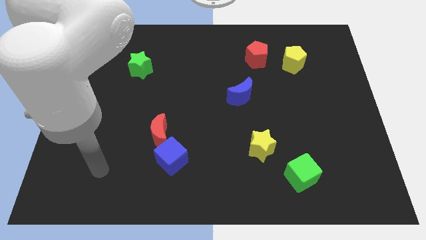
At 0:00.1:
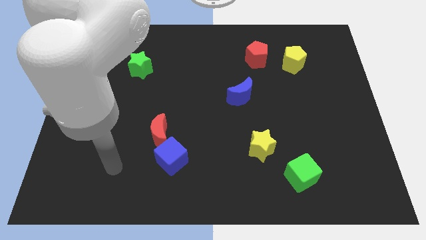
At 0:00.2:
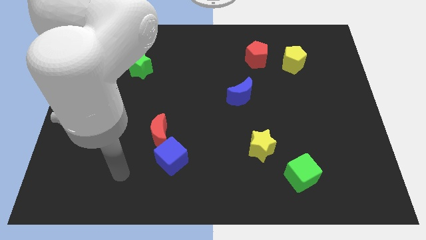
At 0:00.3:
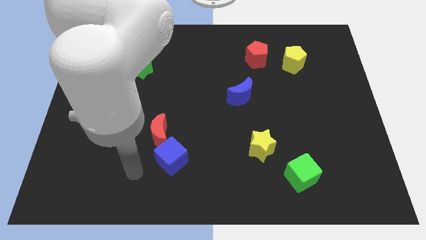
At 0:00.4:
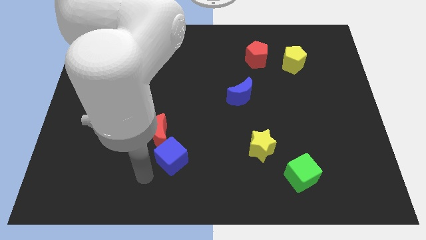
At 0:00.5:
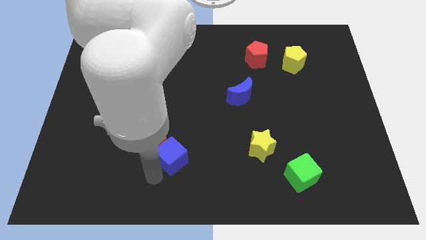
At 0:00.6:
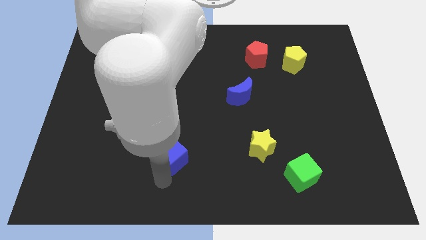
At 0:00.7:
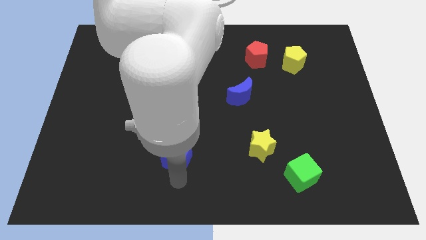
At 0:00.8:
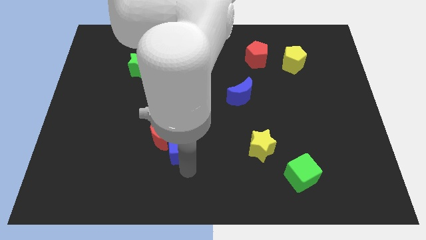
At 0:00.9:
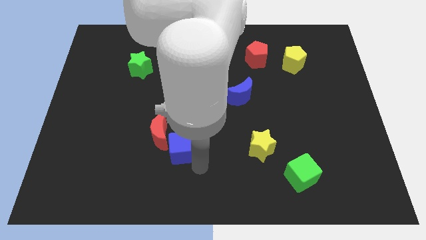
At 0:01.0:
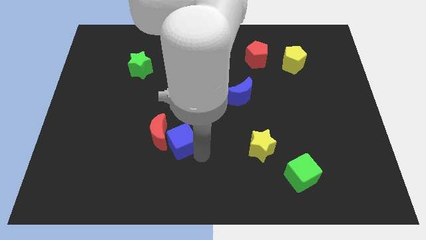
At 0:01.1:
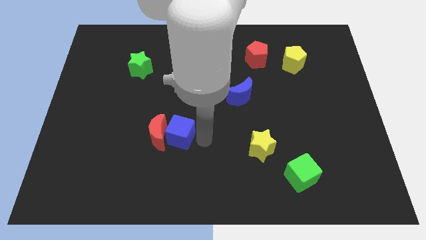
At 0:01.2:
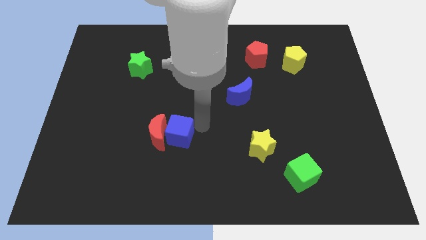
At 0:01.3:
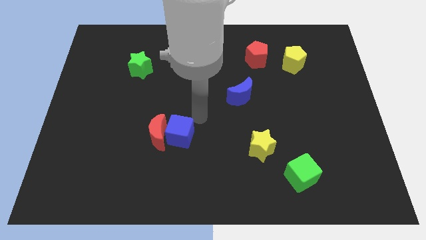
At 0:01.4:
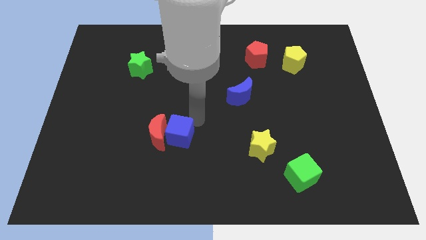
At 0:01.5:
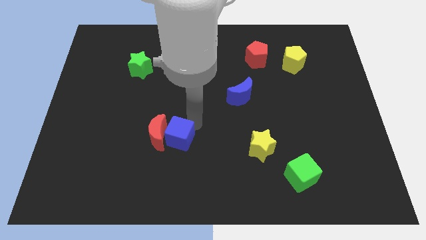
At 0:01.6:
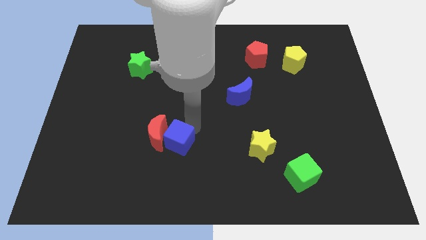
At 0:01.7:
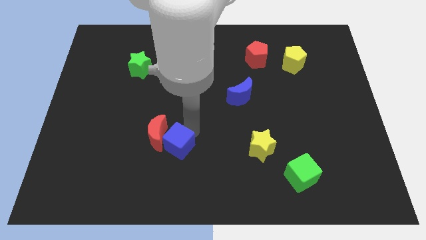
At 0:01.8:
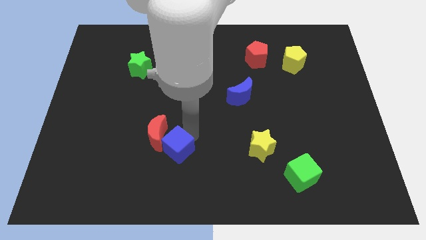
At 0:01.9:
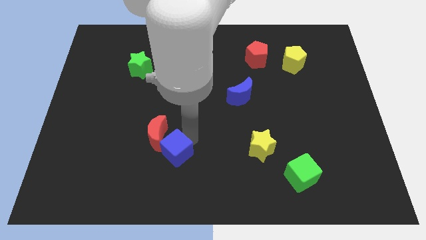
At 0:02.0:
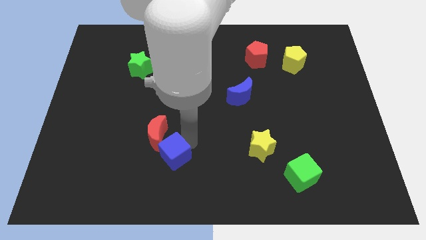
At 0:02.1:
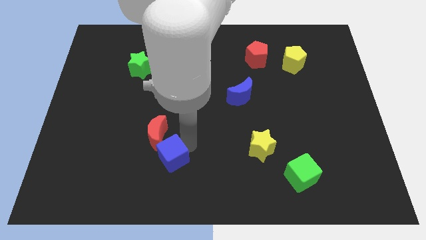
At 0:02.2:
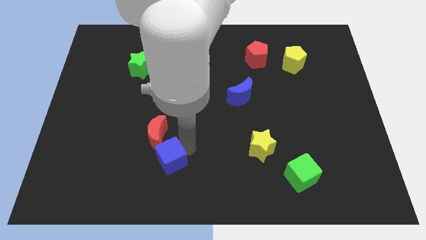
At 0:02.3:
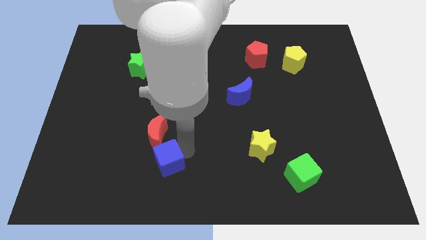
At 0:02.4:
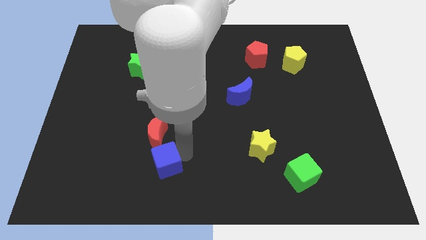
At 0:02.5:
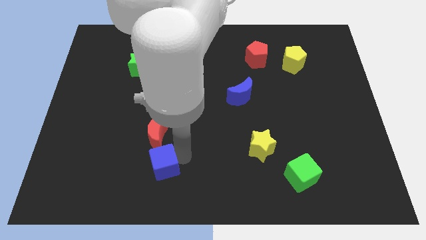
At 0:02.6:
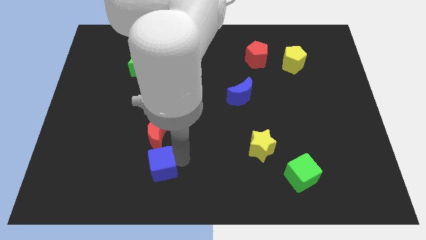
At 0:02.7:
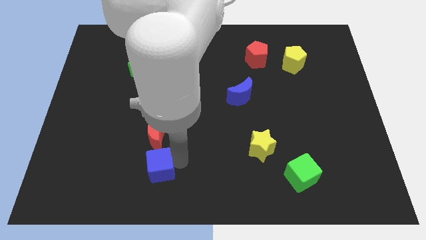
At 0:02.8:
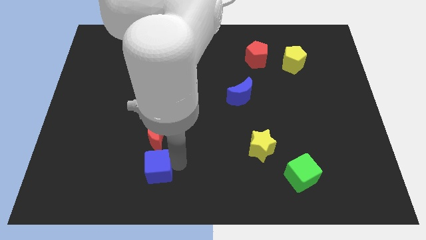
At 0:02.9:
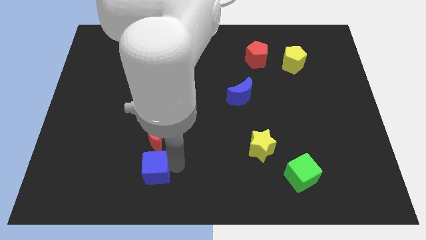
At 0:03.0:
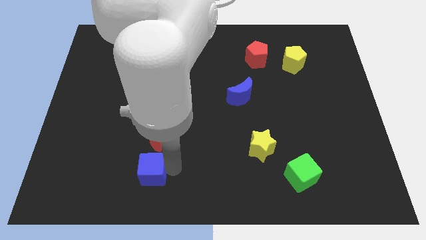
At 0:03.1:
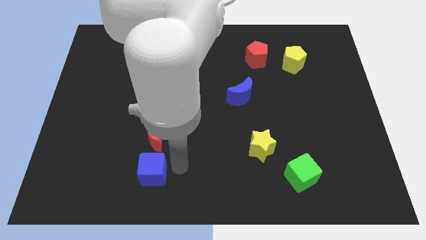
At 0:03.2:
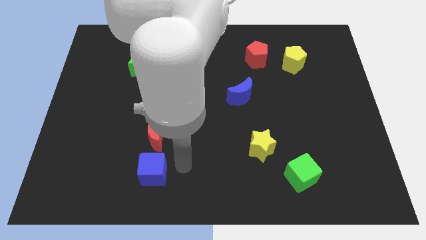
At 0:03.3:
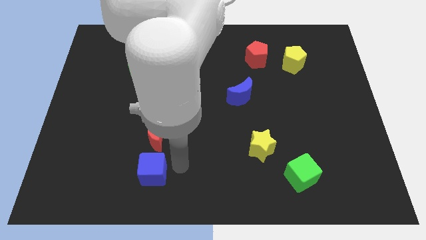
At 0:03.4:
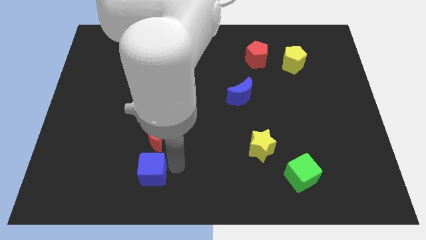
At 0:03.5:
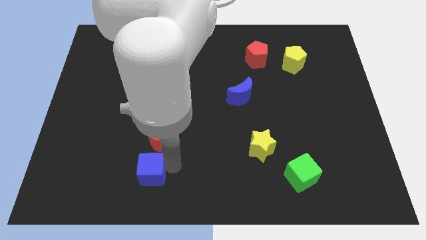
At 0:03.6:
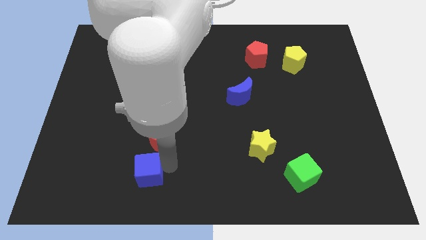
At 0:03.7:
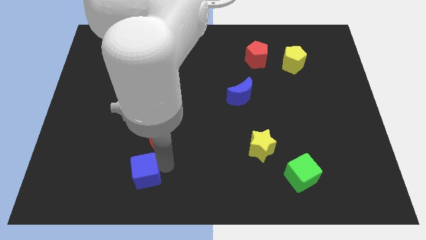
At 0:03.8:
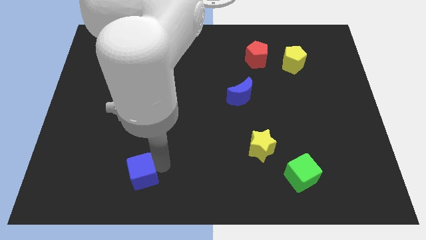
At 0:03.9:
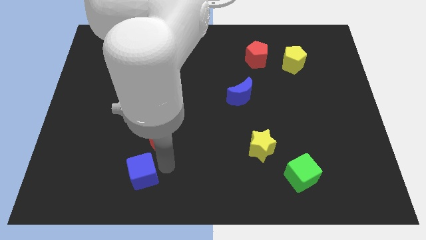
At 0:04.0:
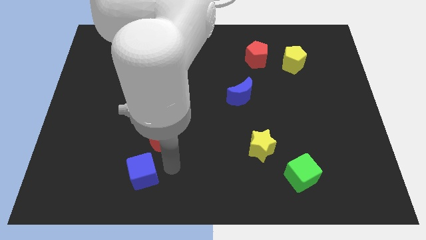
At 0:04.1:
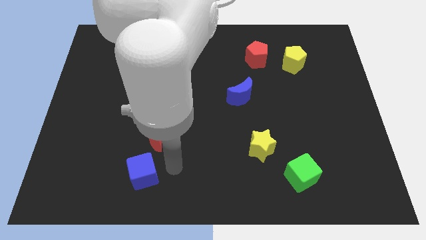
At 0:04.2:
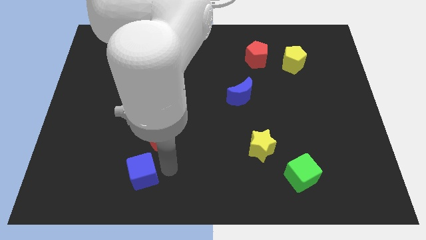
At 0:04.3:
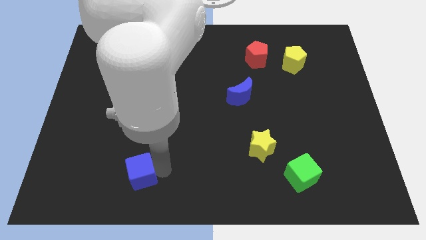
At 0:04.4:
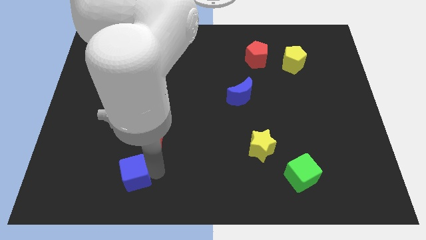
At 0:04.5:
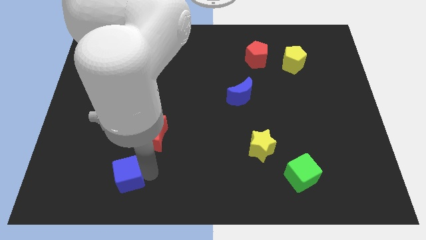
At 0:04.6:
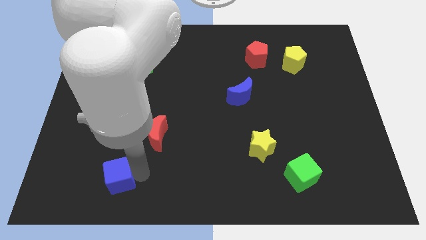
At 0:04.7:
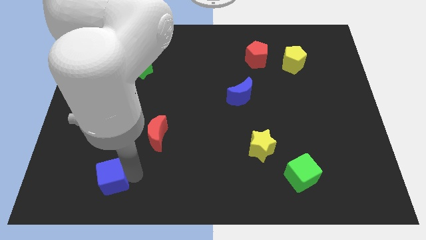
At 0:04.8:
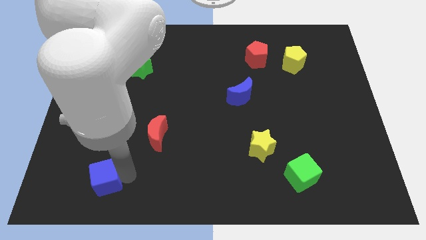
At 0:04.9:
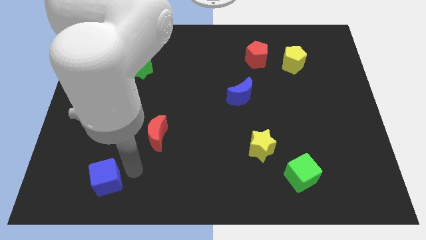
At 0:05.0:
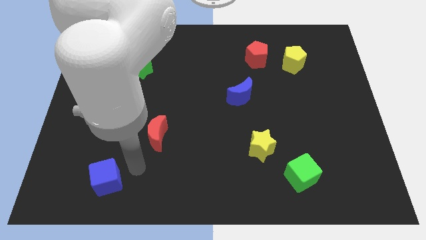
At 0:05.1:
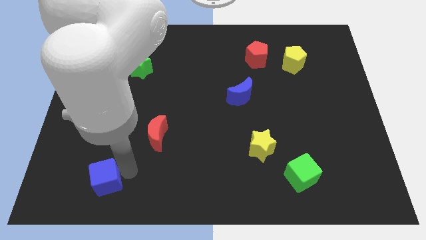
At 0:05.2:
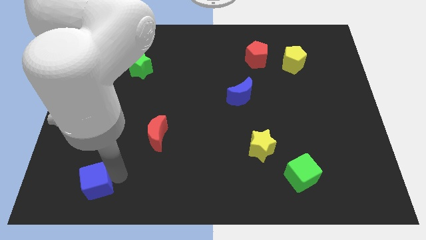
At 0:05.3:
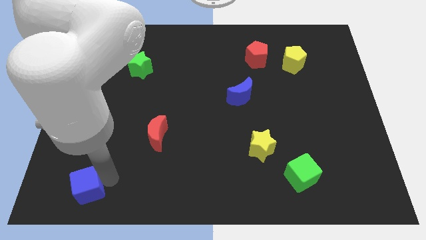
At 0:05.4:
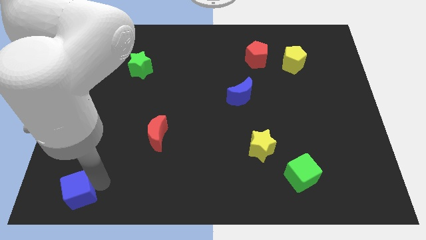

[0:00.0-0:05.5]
put the blue cube to the bottom left corner

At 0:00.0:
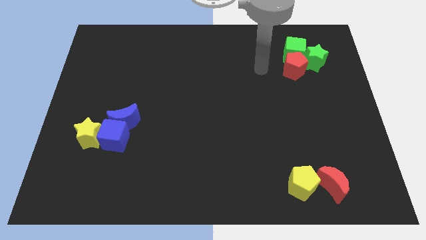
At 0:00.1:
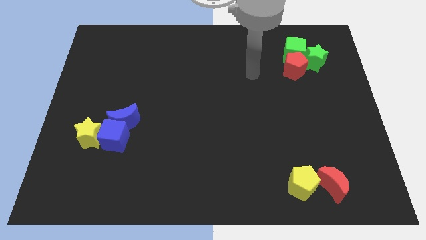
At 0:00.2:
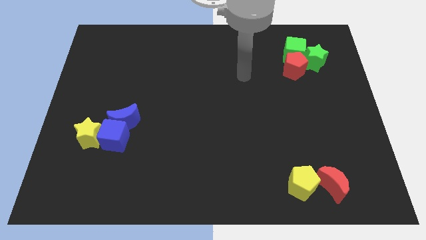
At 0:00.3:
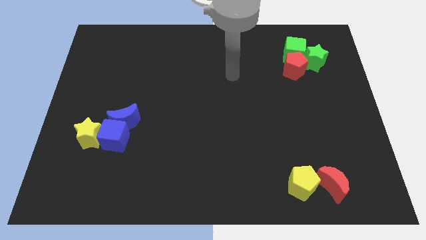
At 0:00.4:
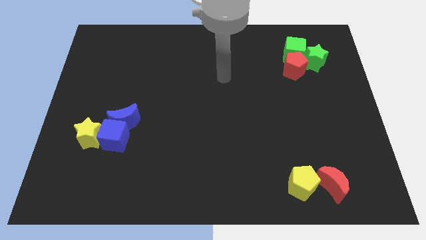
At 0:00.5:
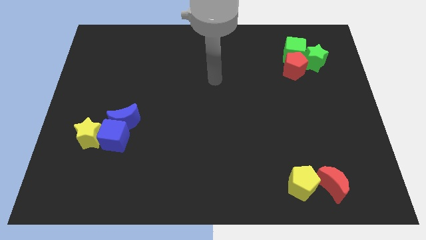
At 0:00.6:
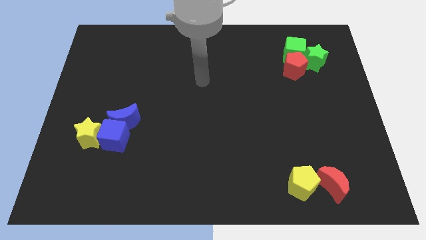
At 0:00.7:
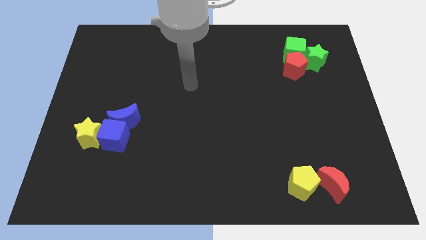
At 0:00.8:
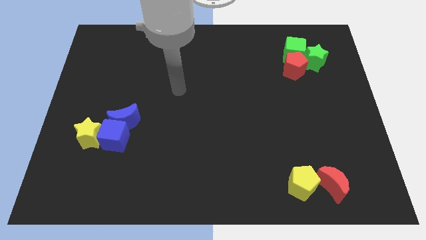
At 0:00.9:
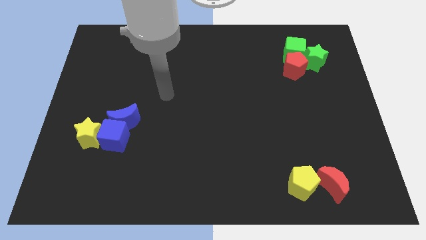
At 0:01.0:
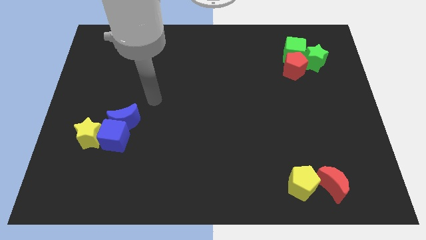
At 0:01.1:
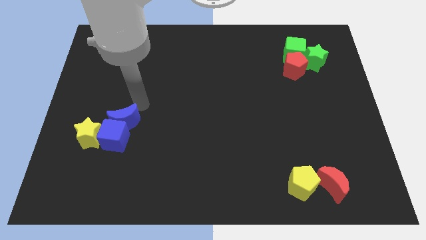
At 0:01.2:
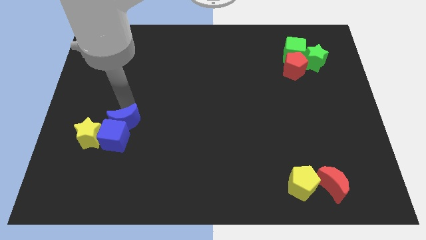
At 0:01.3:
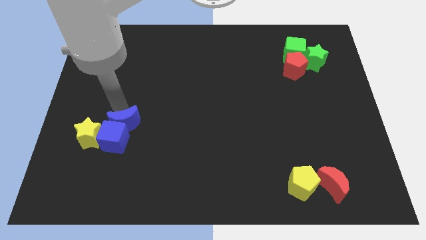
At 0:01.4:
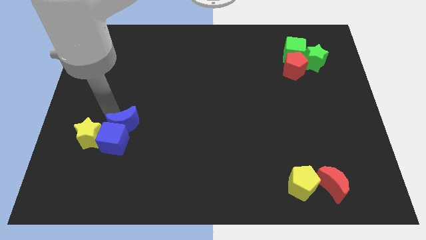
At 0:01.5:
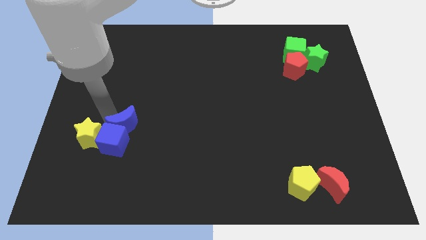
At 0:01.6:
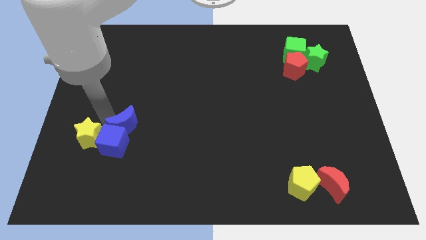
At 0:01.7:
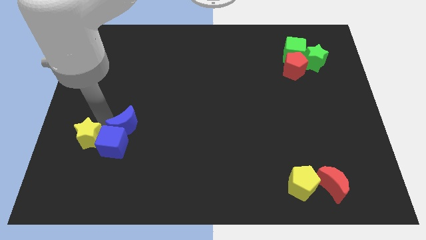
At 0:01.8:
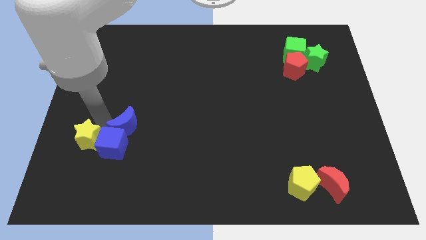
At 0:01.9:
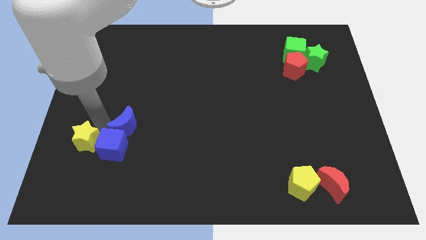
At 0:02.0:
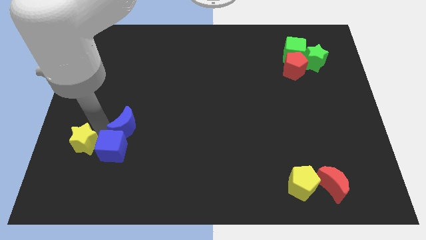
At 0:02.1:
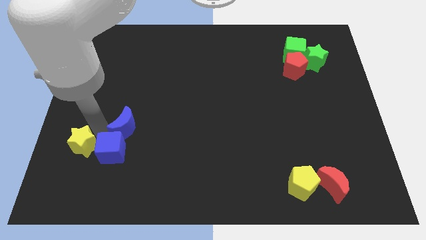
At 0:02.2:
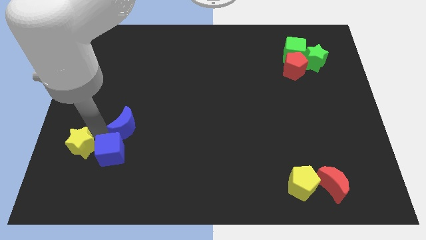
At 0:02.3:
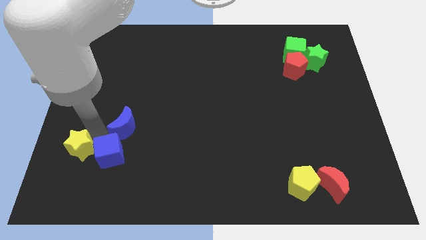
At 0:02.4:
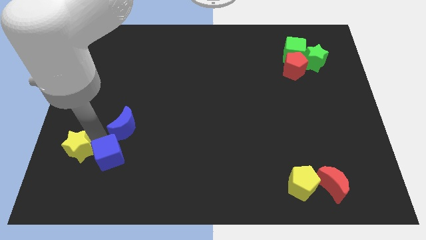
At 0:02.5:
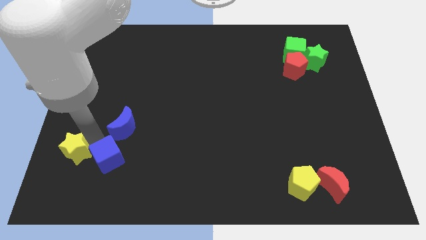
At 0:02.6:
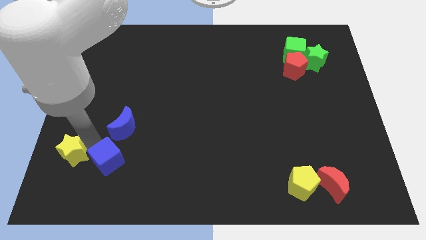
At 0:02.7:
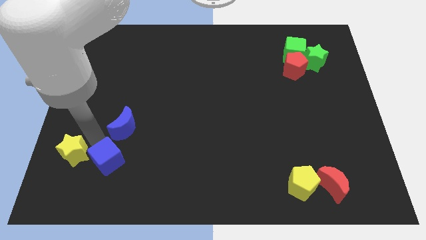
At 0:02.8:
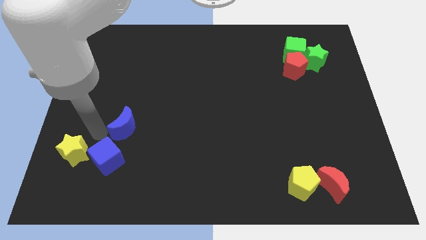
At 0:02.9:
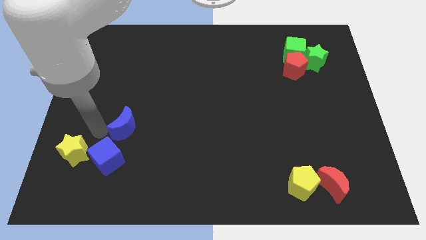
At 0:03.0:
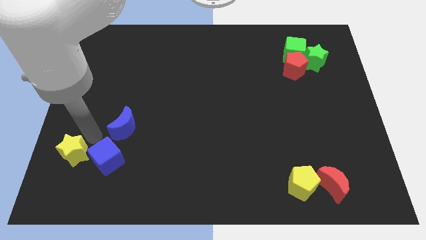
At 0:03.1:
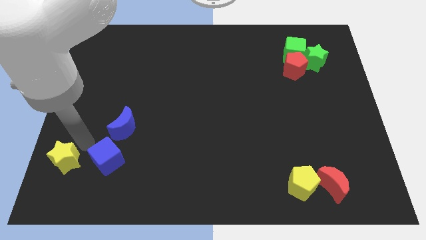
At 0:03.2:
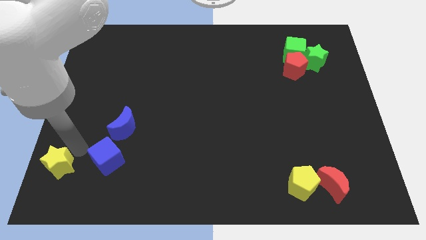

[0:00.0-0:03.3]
slide the yellow star to the bottom left of the board
